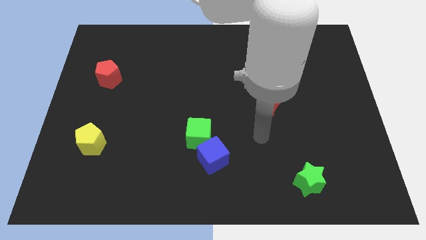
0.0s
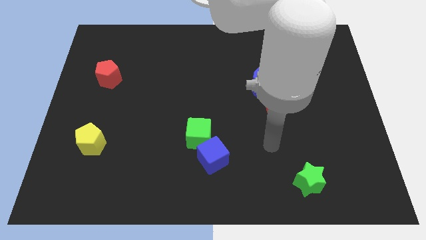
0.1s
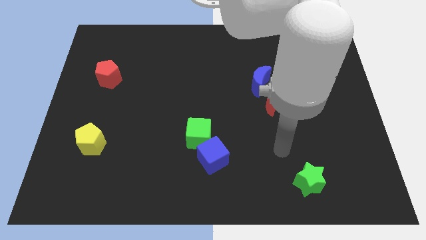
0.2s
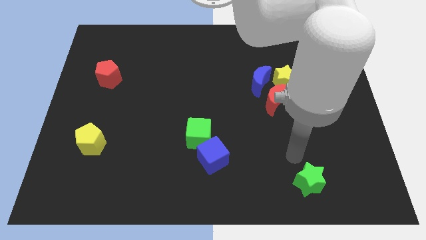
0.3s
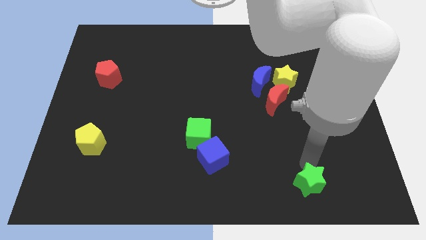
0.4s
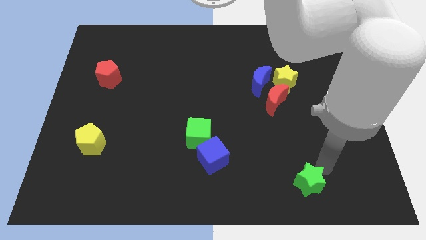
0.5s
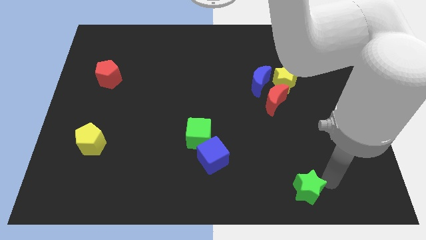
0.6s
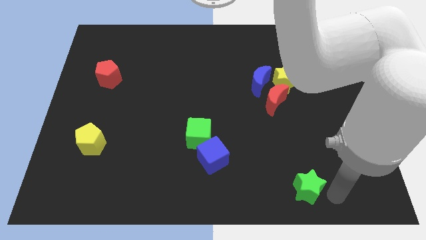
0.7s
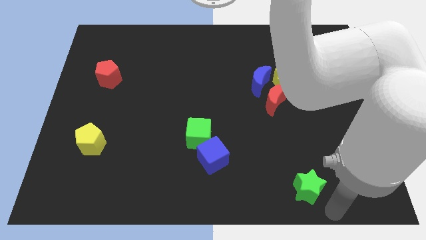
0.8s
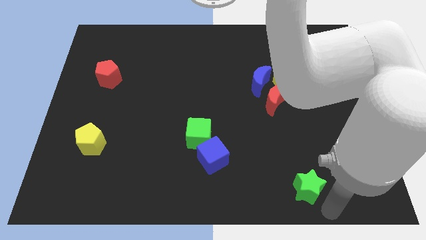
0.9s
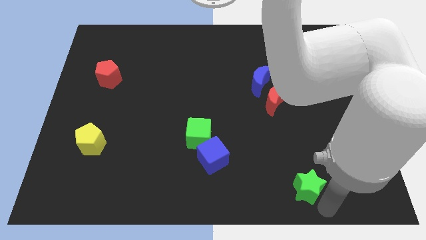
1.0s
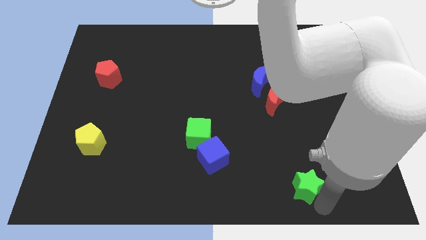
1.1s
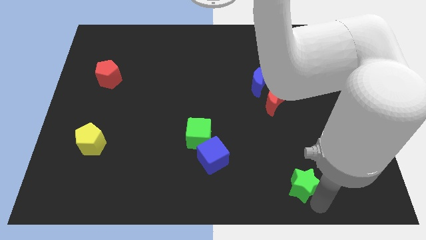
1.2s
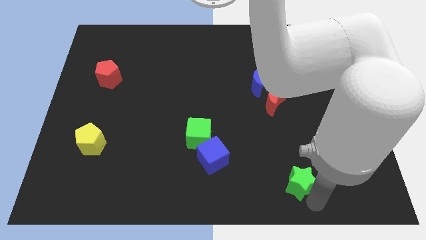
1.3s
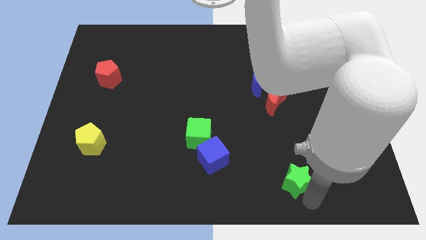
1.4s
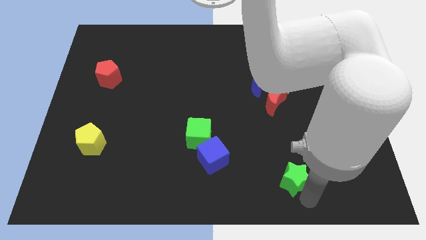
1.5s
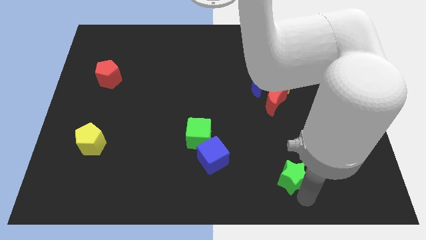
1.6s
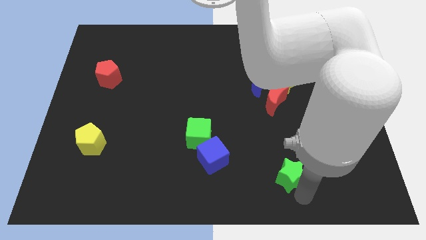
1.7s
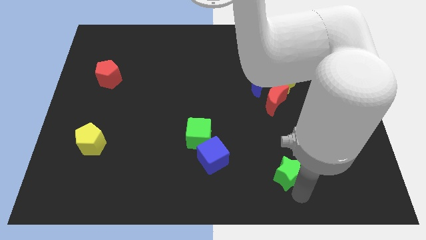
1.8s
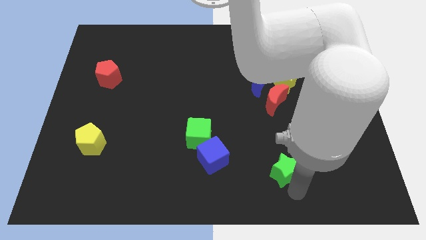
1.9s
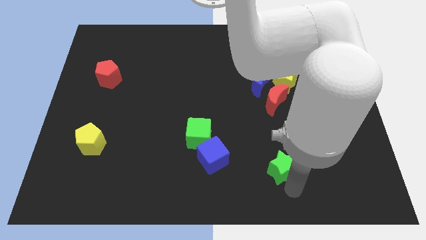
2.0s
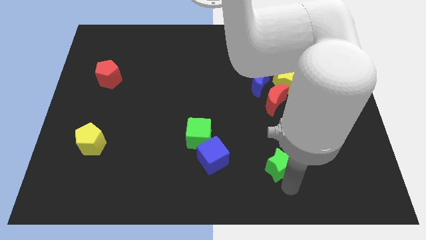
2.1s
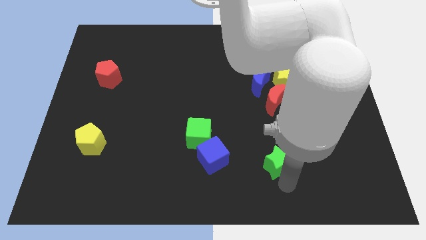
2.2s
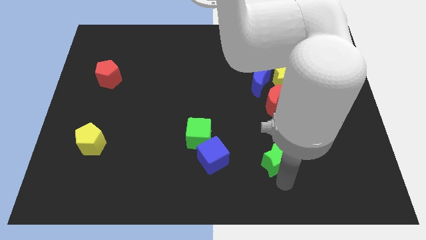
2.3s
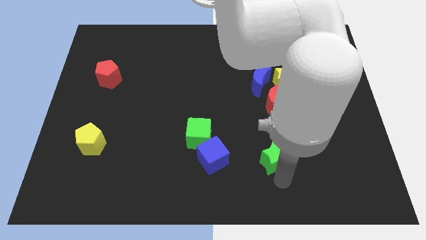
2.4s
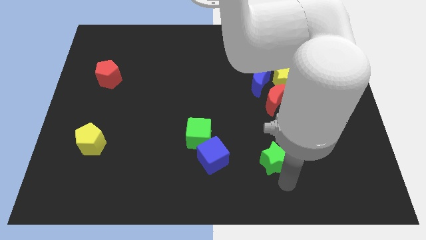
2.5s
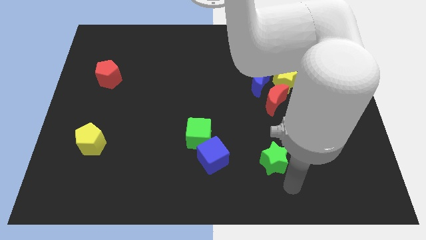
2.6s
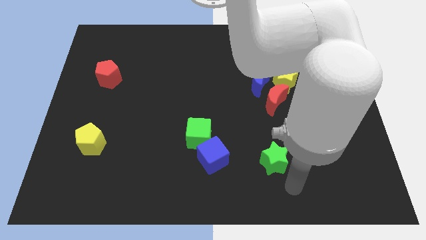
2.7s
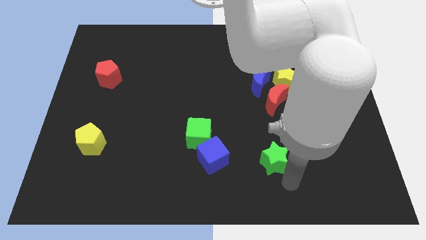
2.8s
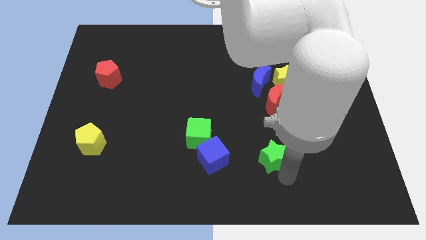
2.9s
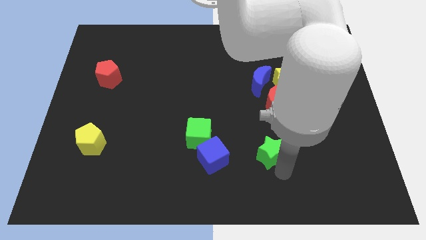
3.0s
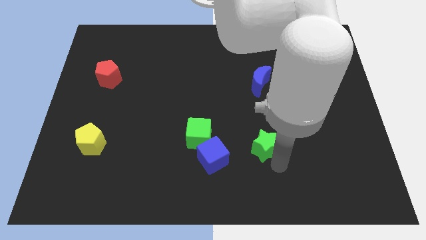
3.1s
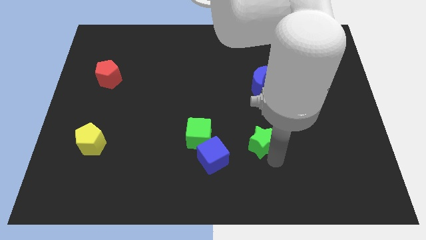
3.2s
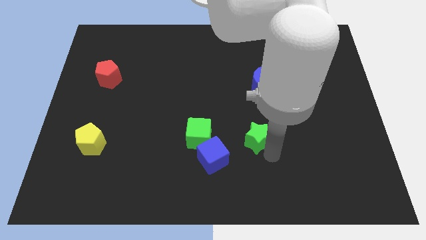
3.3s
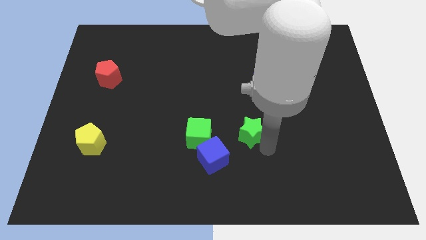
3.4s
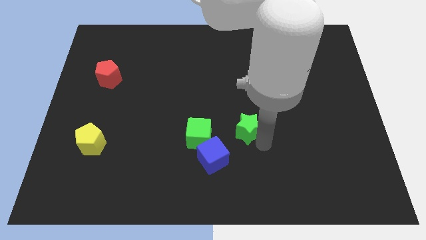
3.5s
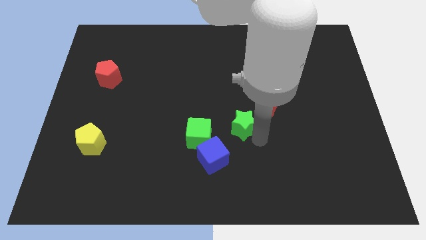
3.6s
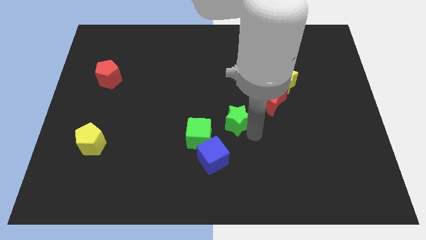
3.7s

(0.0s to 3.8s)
move the green star up and left

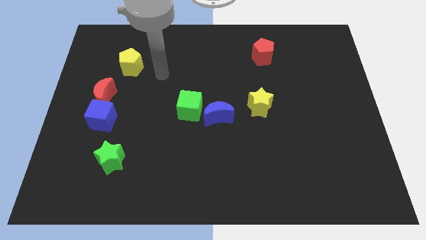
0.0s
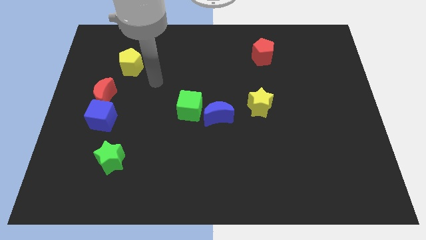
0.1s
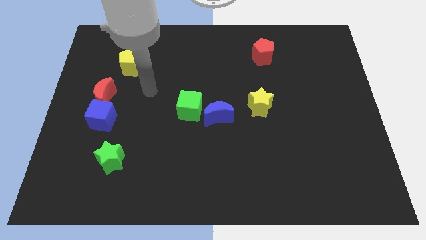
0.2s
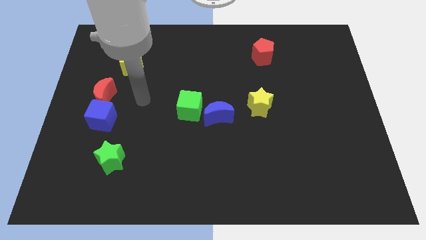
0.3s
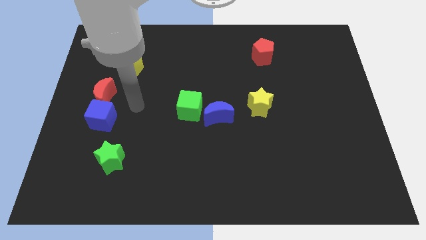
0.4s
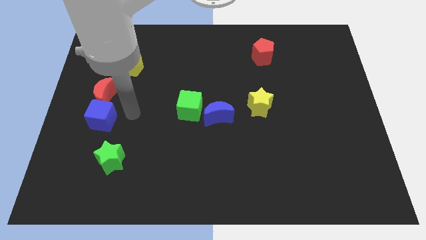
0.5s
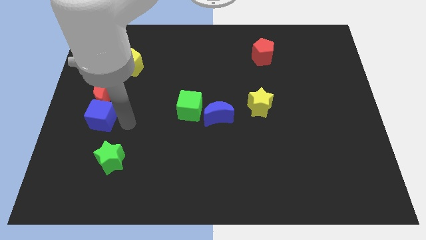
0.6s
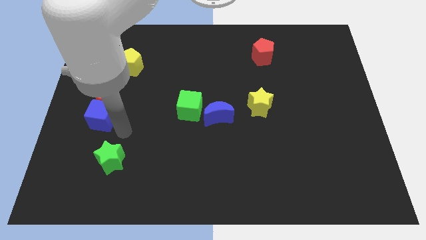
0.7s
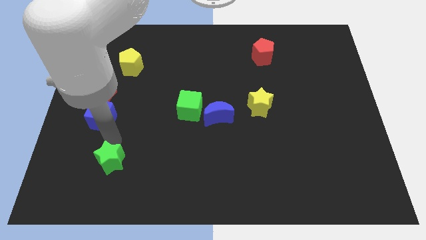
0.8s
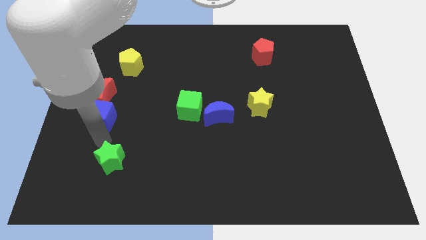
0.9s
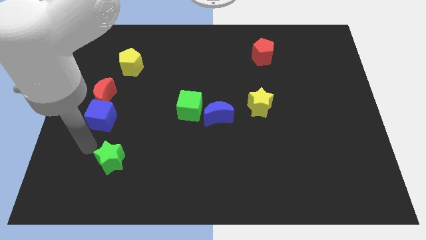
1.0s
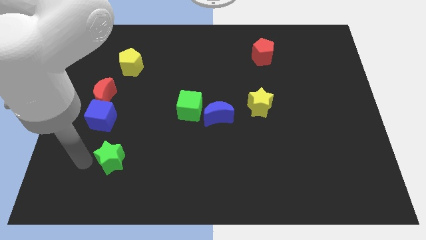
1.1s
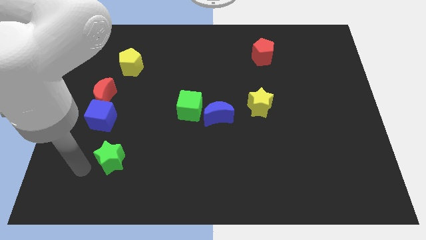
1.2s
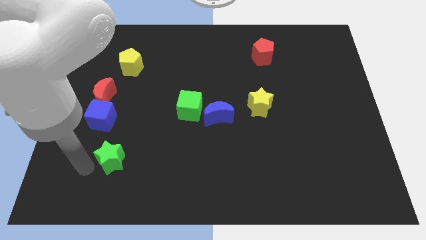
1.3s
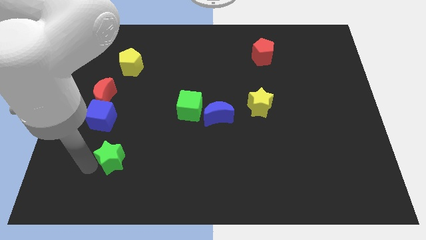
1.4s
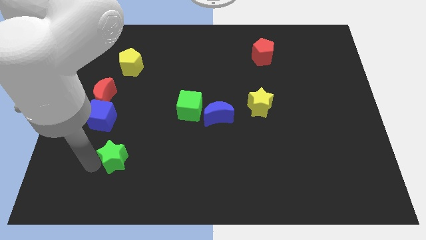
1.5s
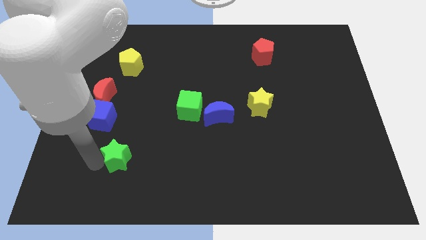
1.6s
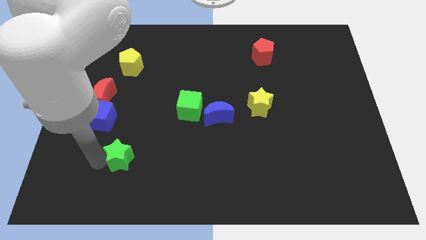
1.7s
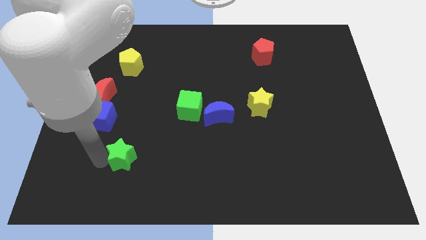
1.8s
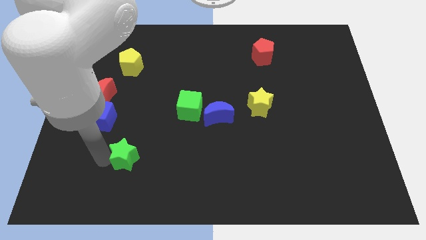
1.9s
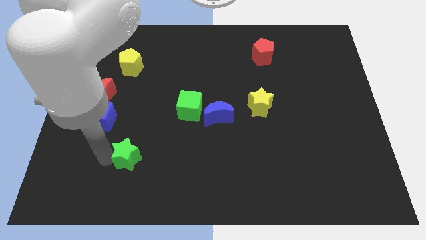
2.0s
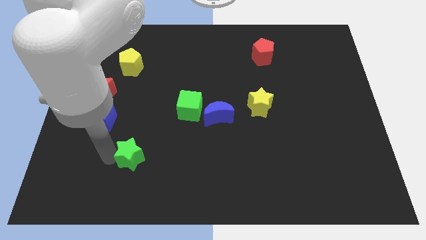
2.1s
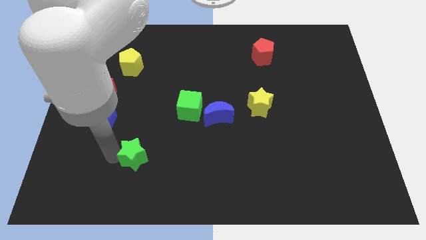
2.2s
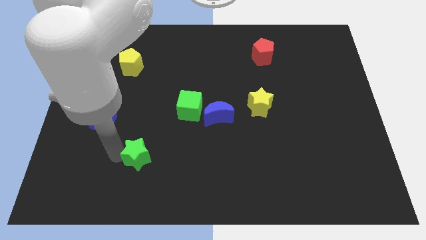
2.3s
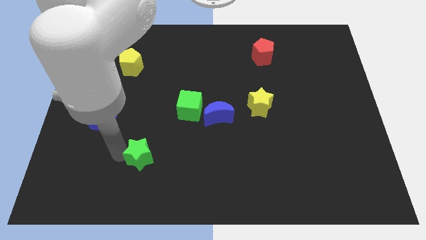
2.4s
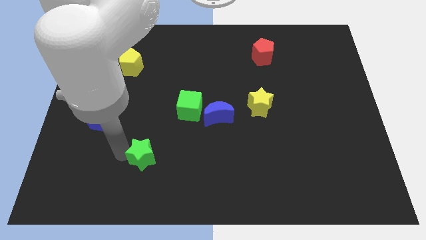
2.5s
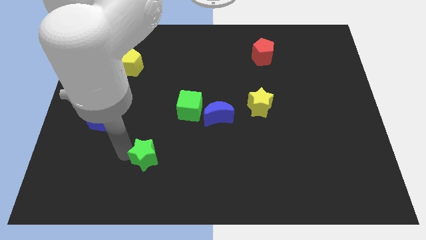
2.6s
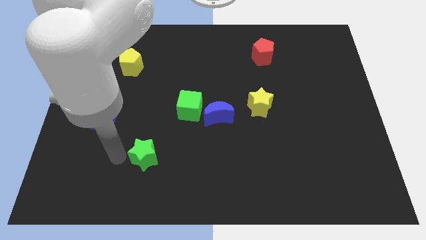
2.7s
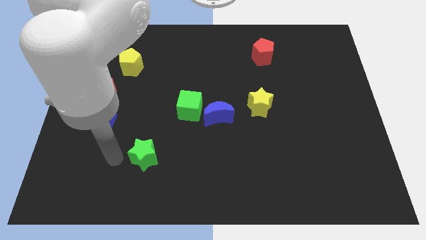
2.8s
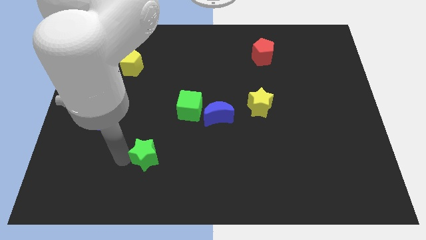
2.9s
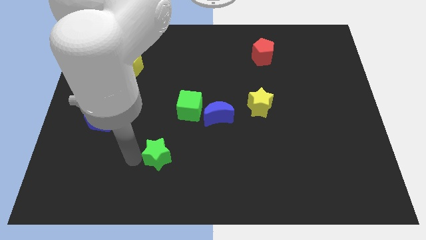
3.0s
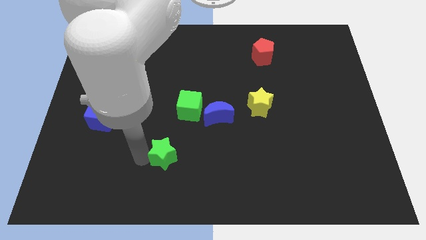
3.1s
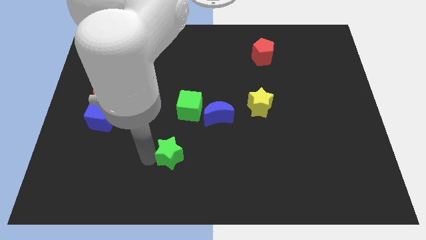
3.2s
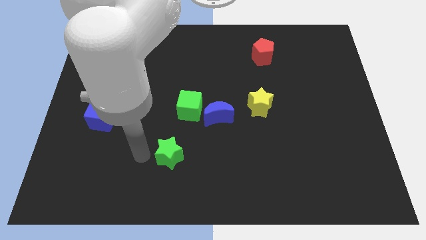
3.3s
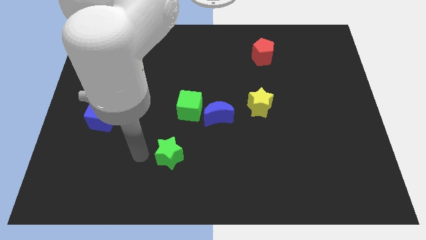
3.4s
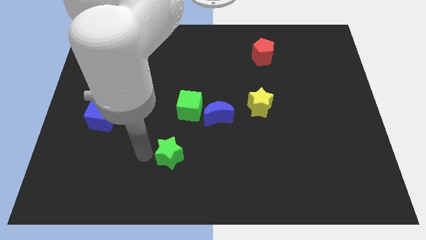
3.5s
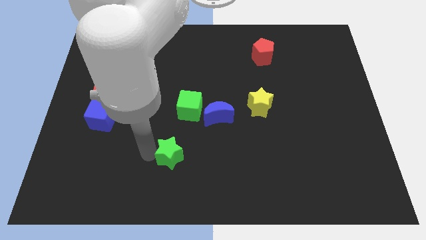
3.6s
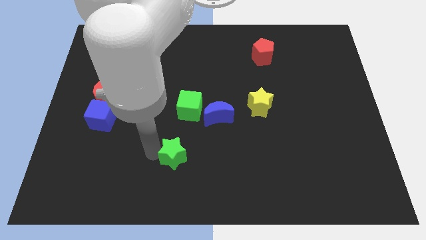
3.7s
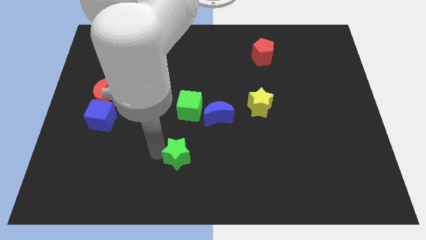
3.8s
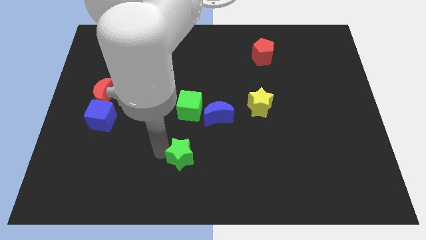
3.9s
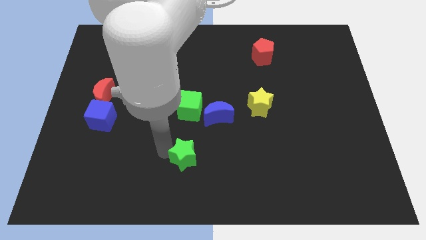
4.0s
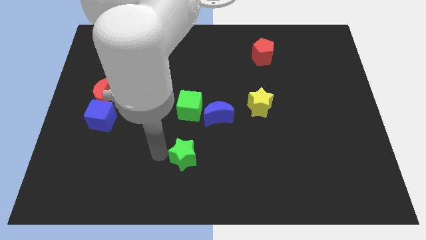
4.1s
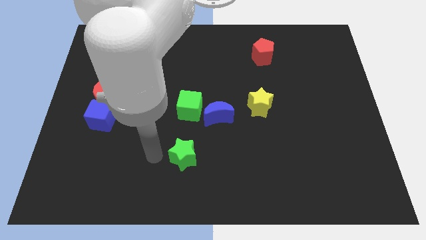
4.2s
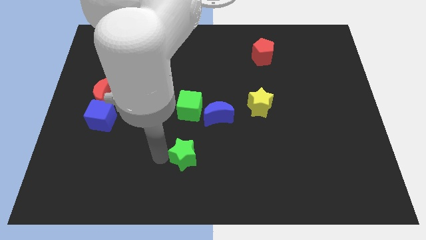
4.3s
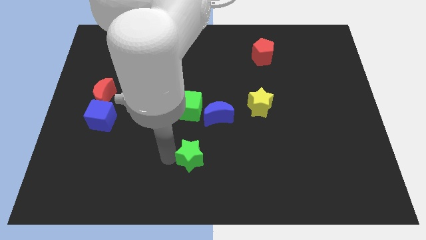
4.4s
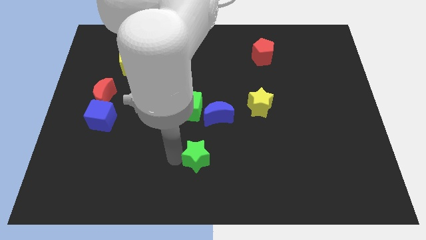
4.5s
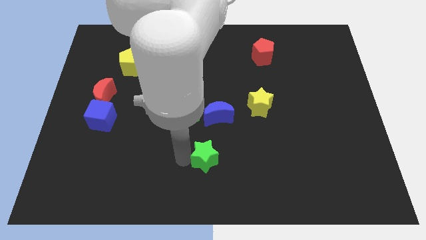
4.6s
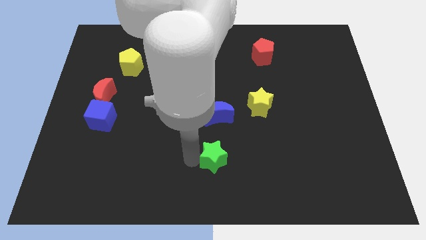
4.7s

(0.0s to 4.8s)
push the green star to the right
